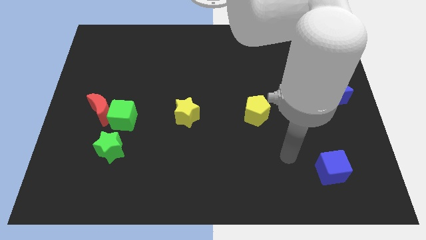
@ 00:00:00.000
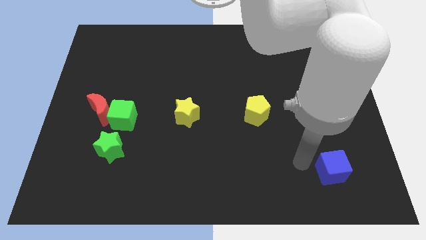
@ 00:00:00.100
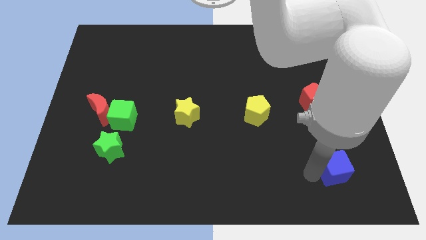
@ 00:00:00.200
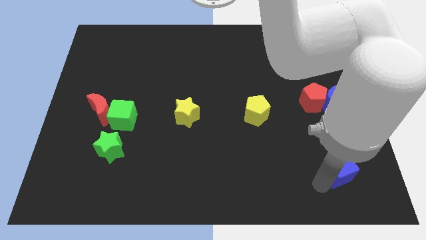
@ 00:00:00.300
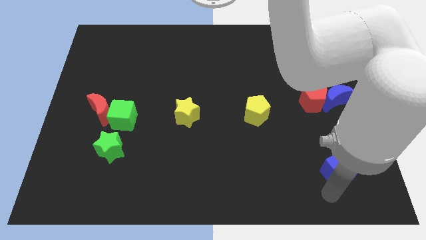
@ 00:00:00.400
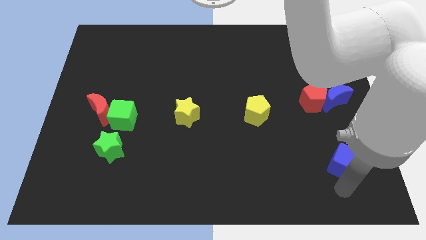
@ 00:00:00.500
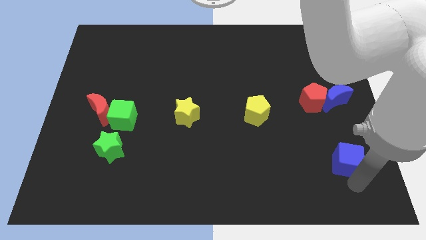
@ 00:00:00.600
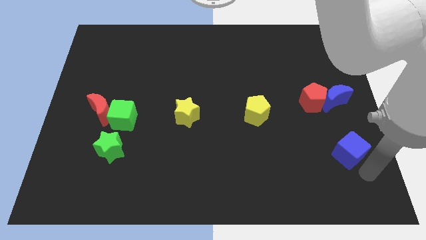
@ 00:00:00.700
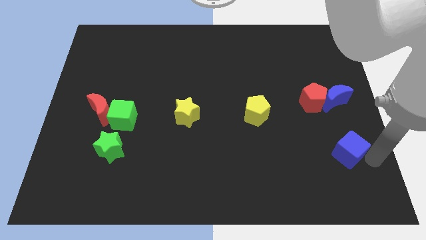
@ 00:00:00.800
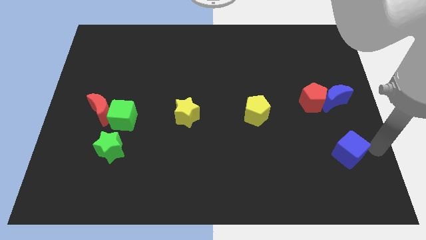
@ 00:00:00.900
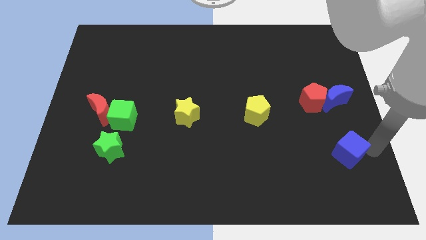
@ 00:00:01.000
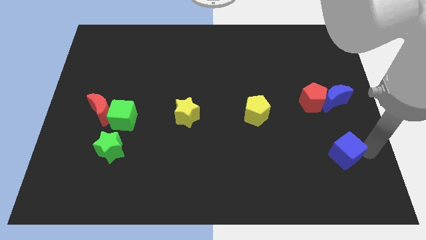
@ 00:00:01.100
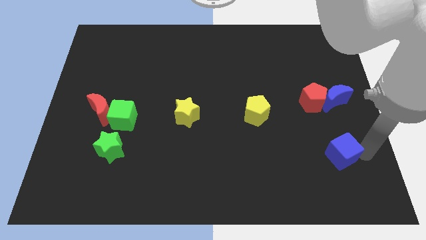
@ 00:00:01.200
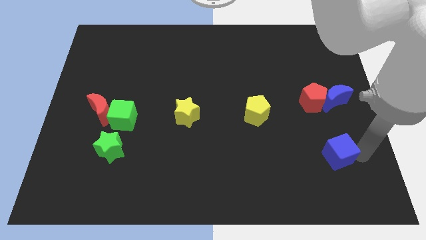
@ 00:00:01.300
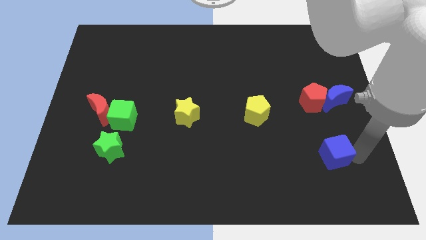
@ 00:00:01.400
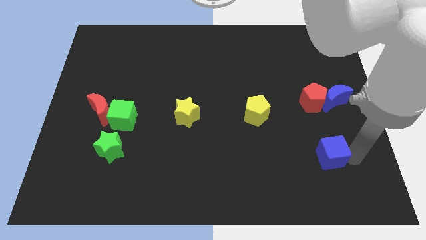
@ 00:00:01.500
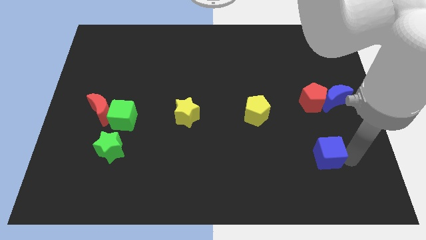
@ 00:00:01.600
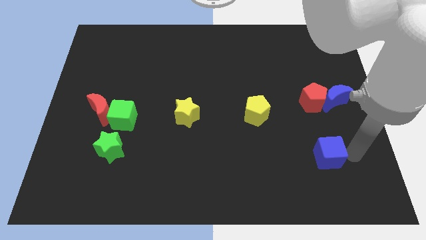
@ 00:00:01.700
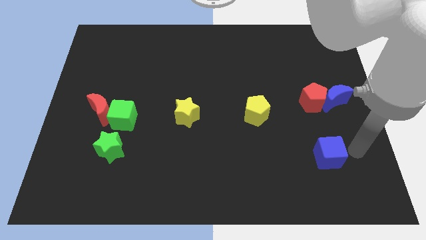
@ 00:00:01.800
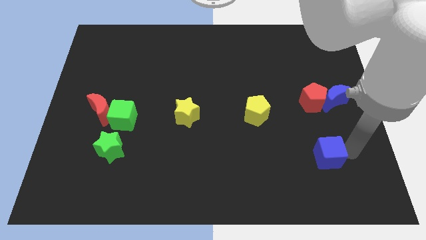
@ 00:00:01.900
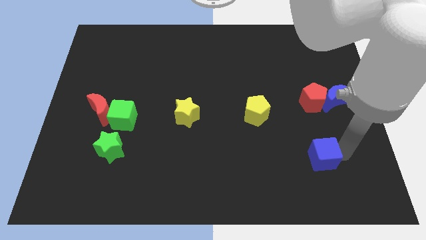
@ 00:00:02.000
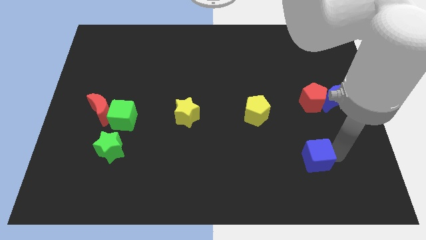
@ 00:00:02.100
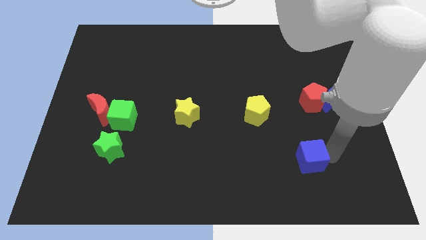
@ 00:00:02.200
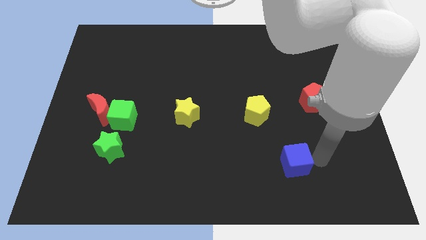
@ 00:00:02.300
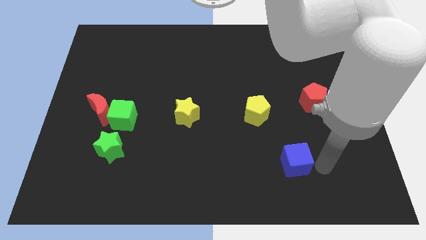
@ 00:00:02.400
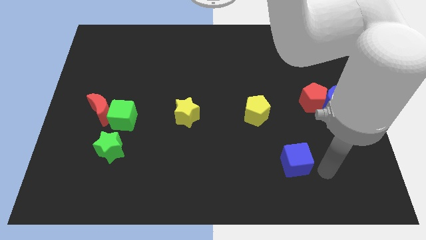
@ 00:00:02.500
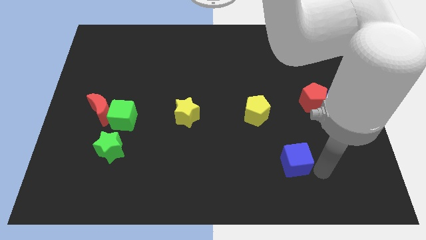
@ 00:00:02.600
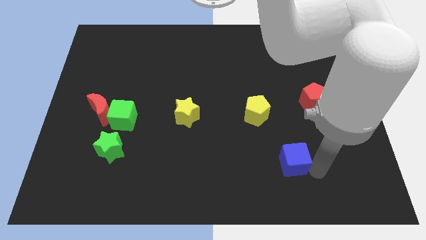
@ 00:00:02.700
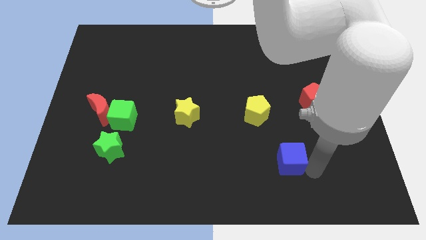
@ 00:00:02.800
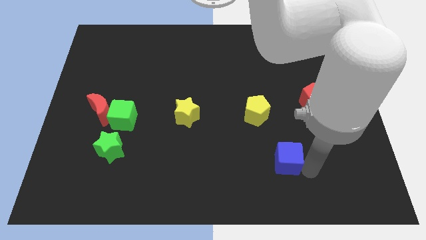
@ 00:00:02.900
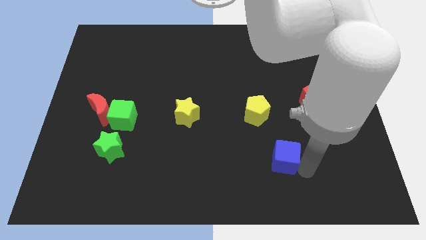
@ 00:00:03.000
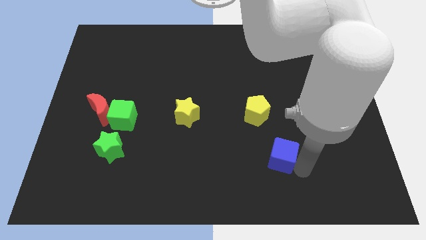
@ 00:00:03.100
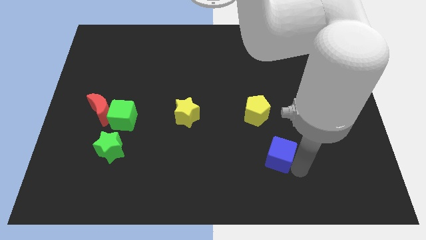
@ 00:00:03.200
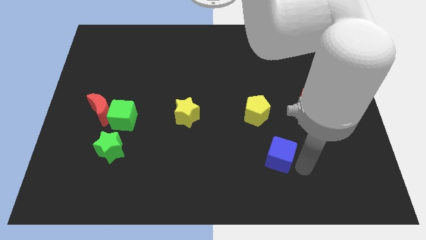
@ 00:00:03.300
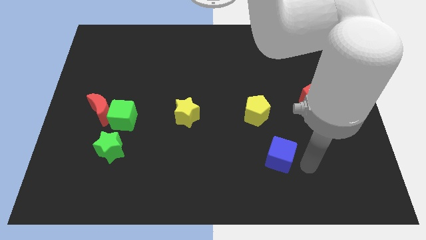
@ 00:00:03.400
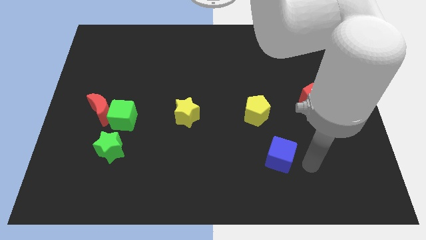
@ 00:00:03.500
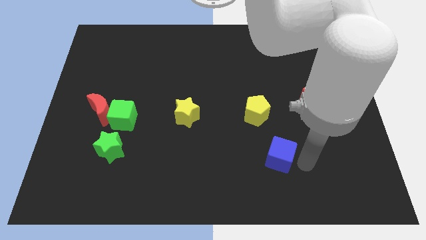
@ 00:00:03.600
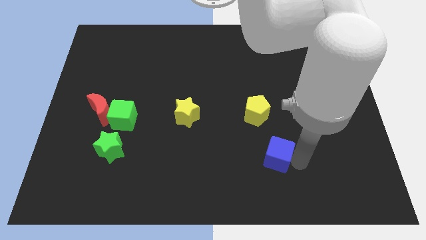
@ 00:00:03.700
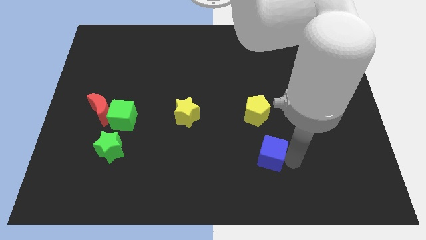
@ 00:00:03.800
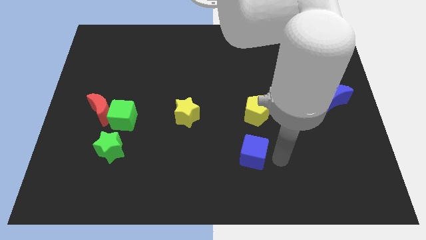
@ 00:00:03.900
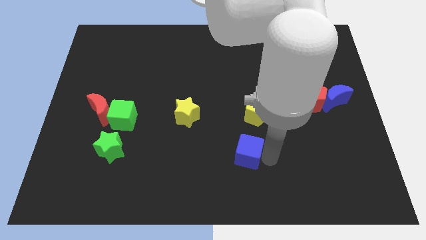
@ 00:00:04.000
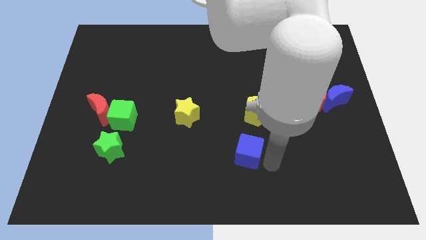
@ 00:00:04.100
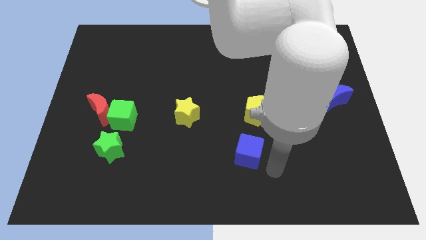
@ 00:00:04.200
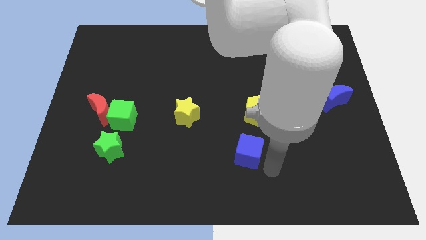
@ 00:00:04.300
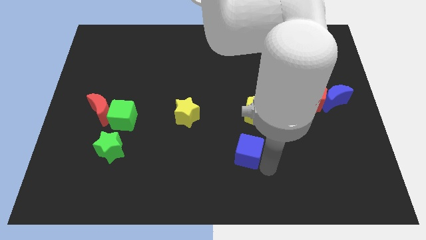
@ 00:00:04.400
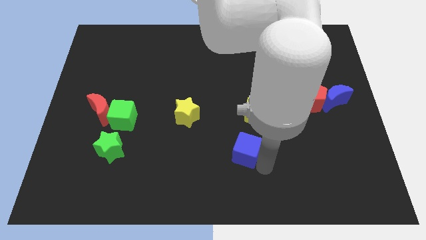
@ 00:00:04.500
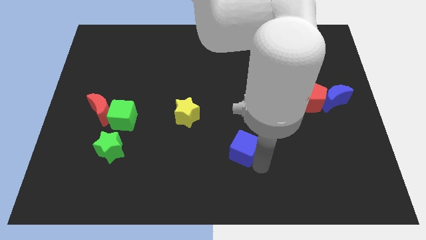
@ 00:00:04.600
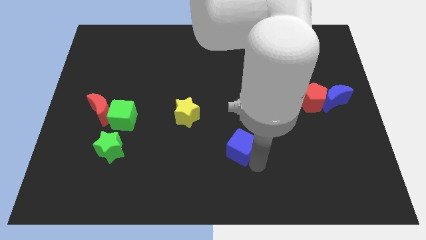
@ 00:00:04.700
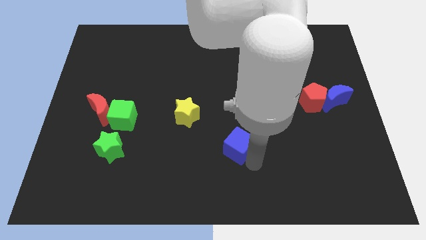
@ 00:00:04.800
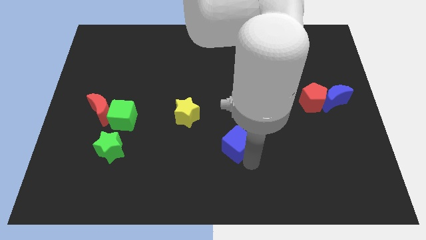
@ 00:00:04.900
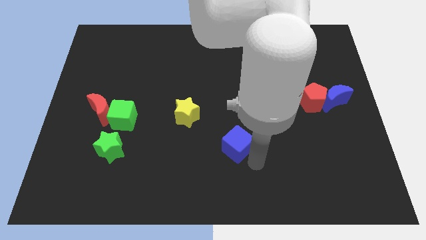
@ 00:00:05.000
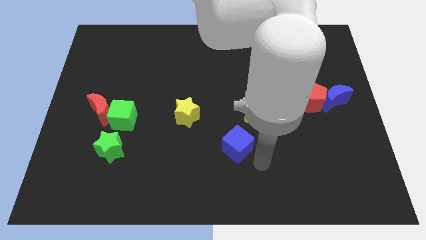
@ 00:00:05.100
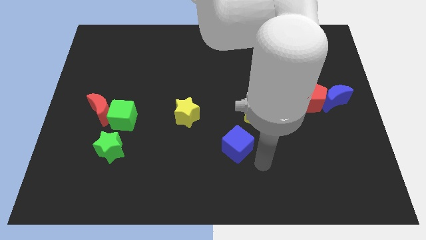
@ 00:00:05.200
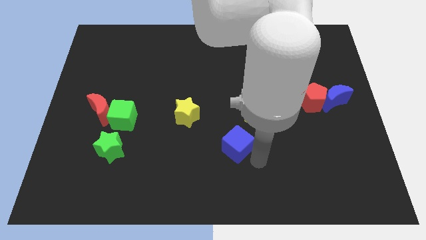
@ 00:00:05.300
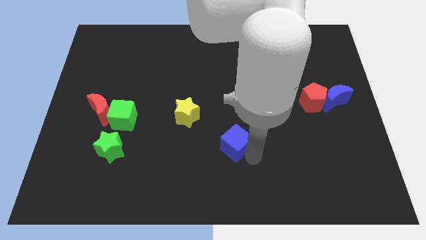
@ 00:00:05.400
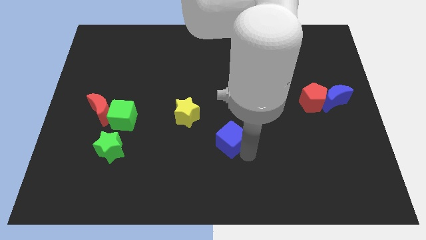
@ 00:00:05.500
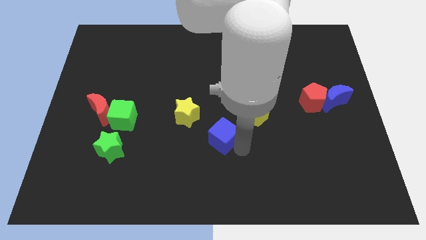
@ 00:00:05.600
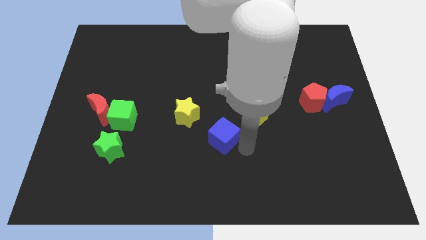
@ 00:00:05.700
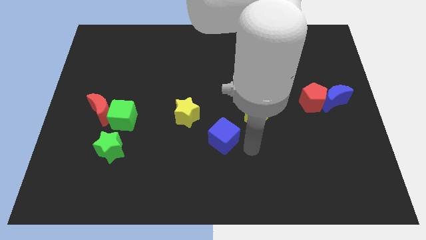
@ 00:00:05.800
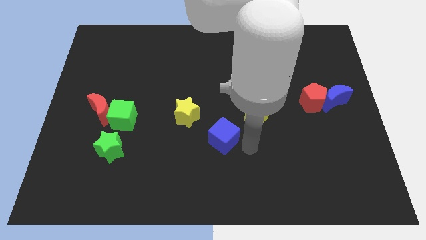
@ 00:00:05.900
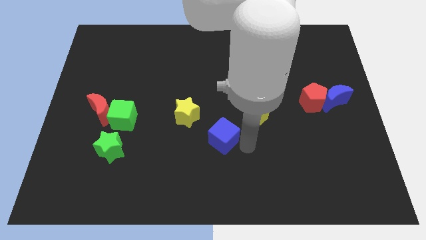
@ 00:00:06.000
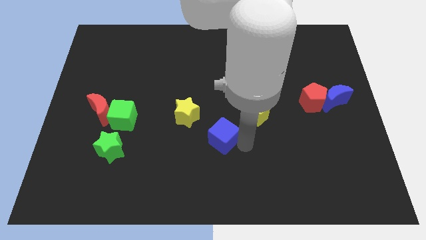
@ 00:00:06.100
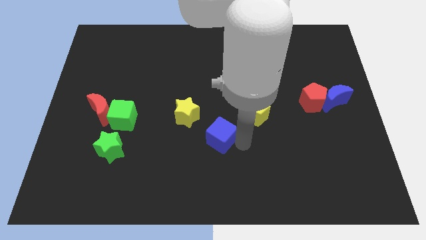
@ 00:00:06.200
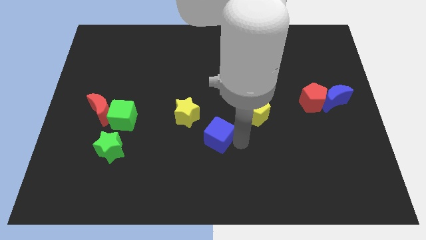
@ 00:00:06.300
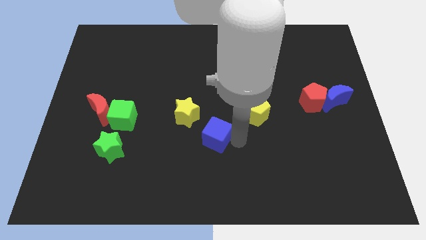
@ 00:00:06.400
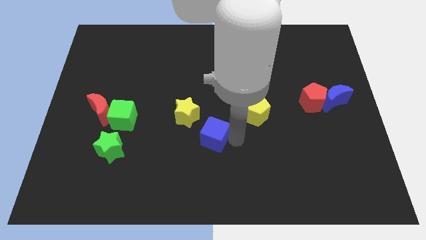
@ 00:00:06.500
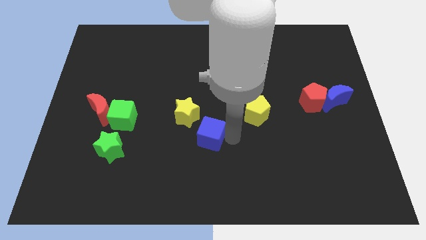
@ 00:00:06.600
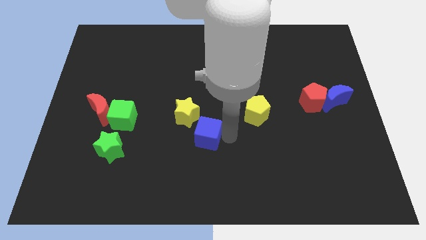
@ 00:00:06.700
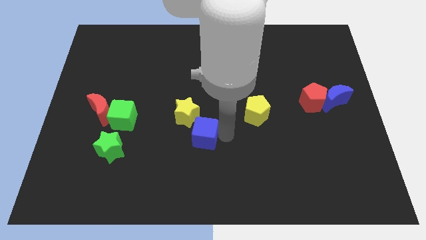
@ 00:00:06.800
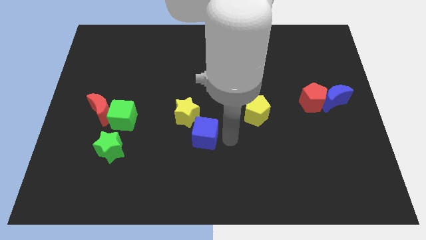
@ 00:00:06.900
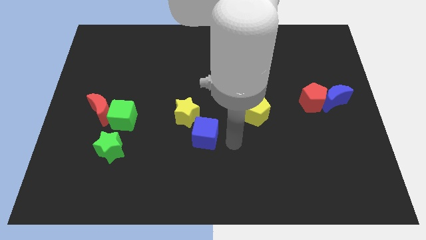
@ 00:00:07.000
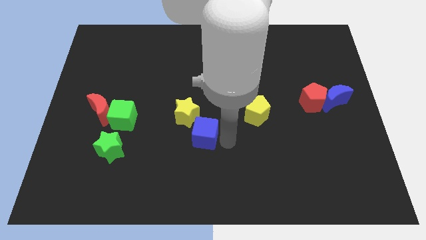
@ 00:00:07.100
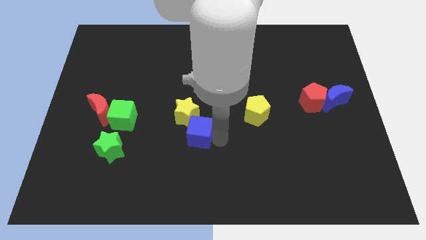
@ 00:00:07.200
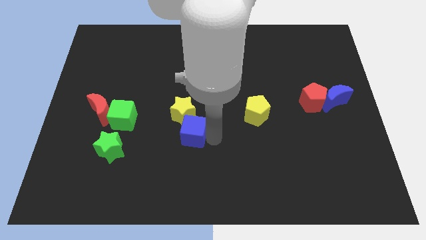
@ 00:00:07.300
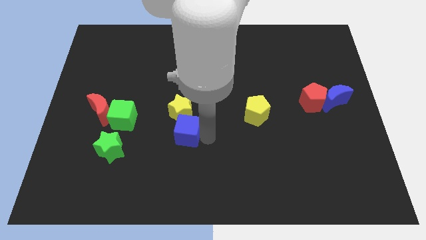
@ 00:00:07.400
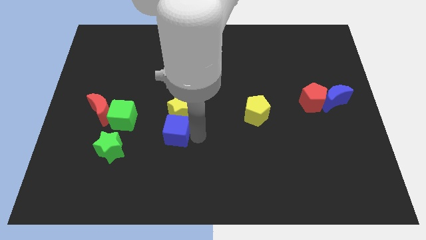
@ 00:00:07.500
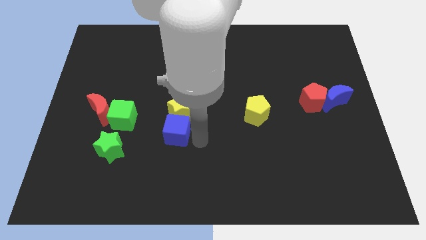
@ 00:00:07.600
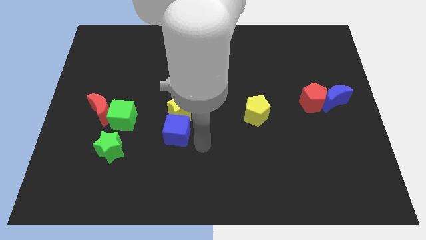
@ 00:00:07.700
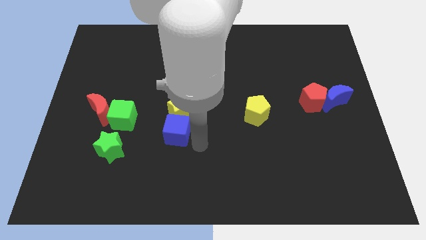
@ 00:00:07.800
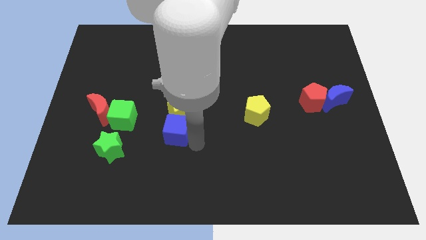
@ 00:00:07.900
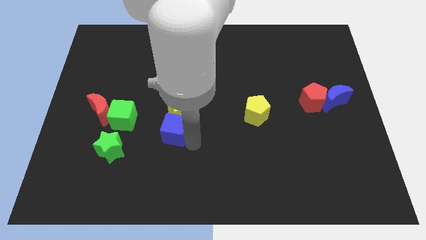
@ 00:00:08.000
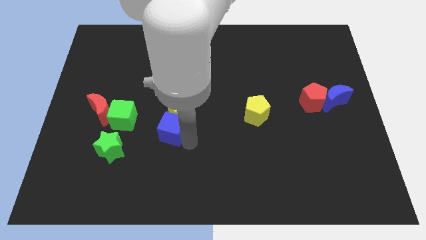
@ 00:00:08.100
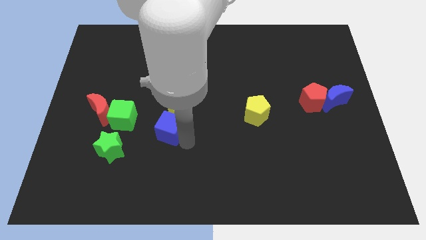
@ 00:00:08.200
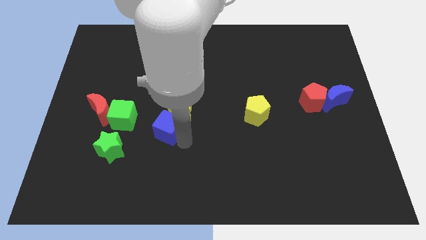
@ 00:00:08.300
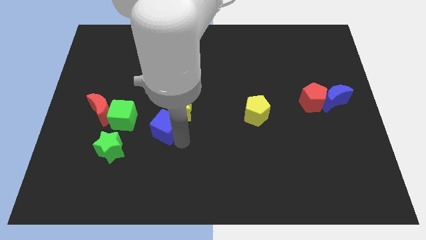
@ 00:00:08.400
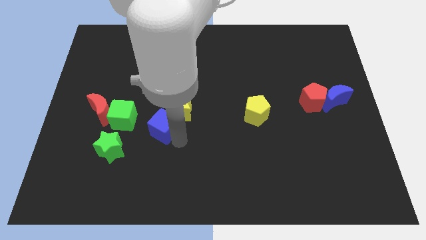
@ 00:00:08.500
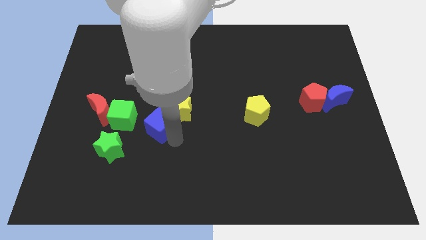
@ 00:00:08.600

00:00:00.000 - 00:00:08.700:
slide the blue cube left of the yellow star
